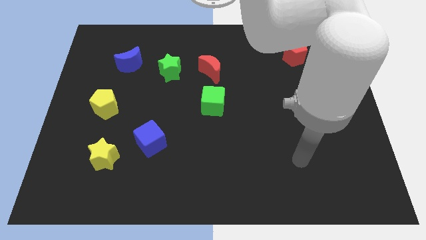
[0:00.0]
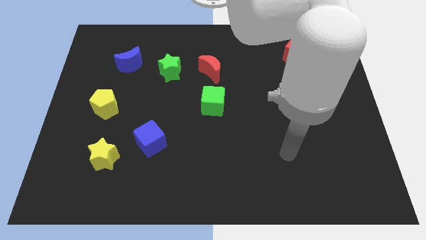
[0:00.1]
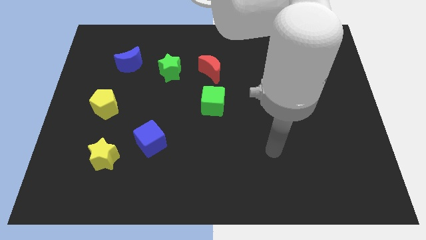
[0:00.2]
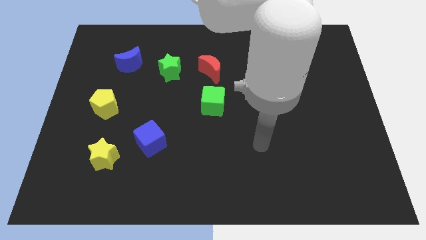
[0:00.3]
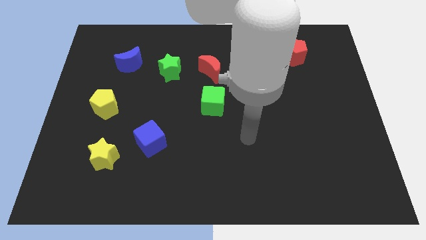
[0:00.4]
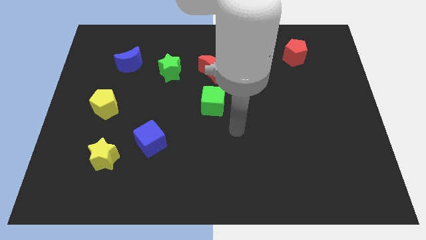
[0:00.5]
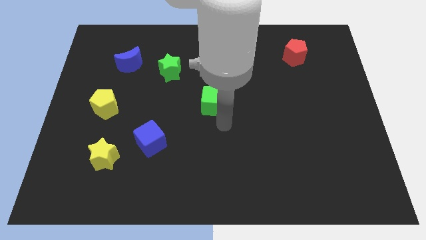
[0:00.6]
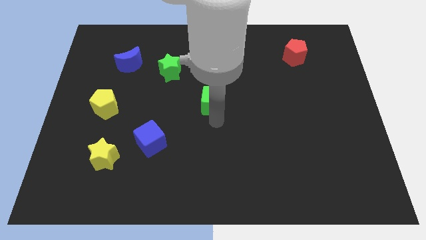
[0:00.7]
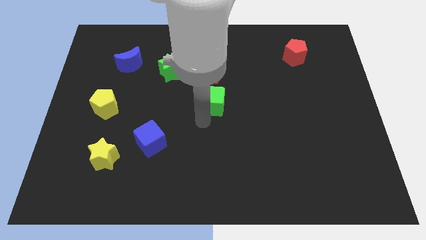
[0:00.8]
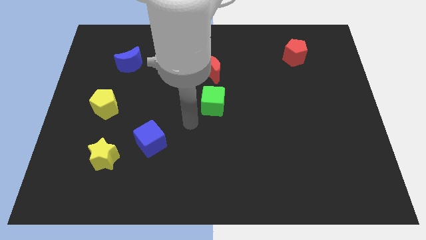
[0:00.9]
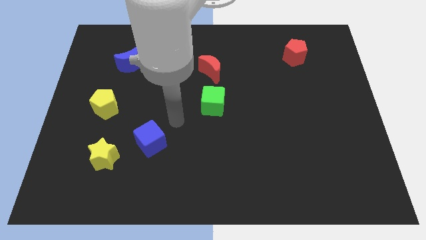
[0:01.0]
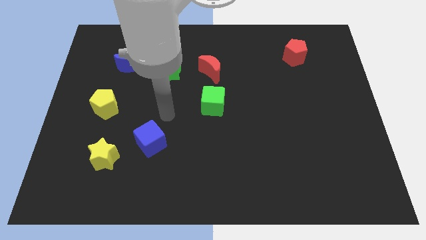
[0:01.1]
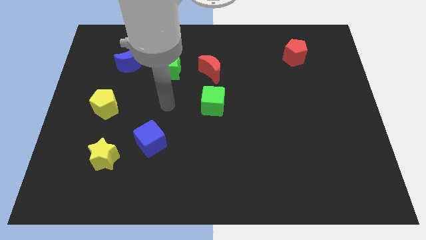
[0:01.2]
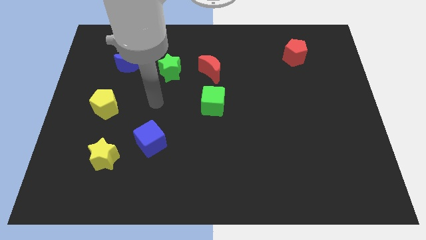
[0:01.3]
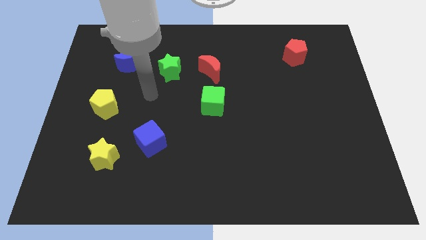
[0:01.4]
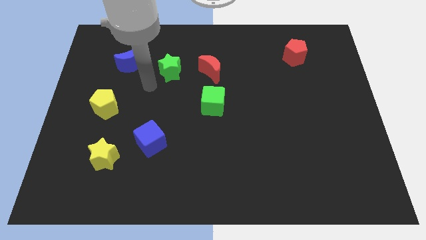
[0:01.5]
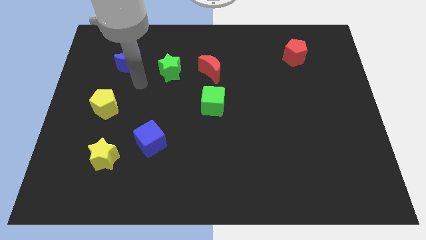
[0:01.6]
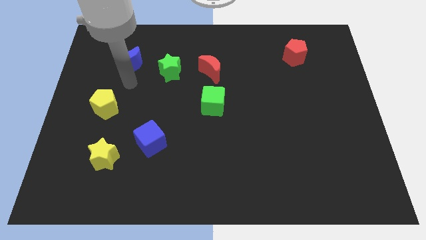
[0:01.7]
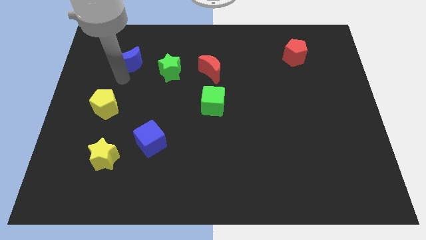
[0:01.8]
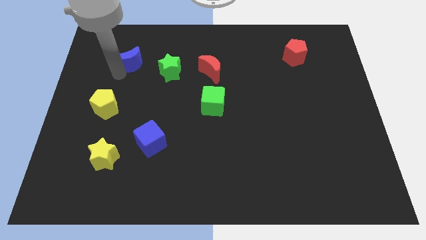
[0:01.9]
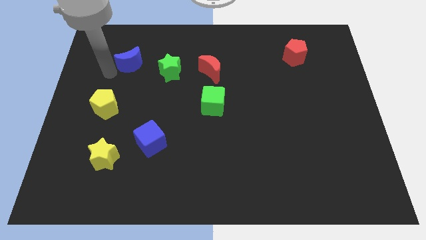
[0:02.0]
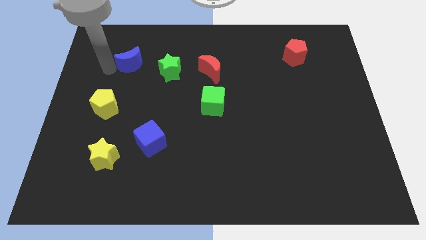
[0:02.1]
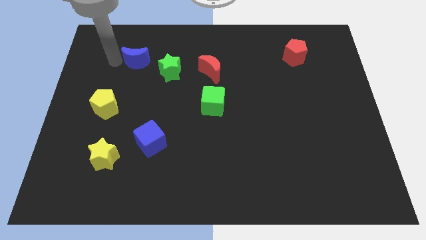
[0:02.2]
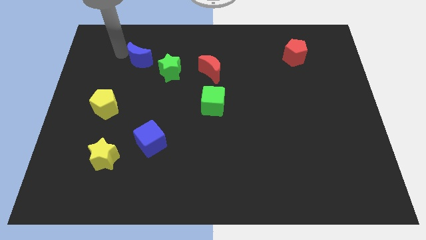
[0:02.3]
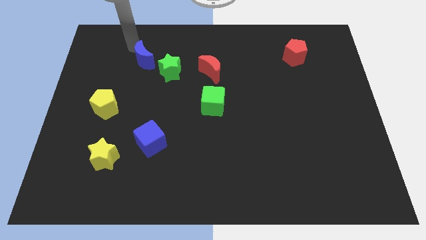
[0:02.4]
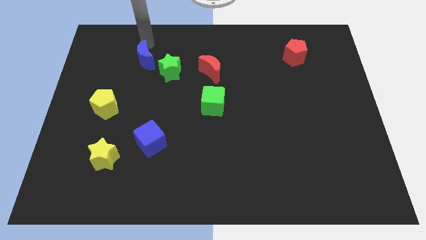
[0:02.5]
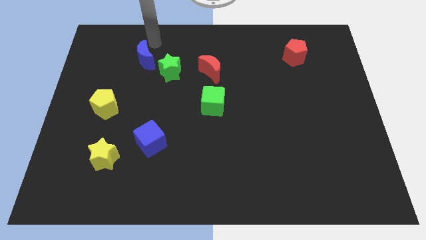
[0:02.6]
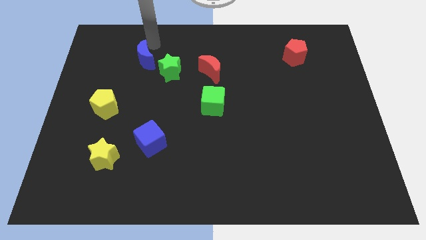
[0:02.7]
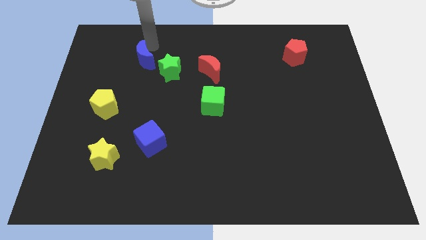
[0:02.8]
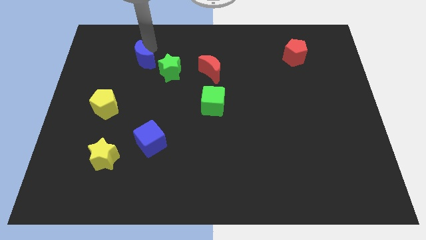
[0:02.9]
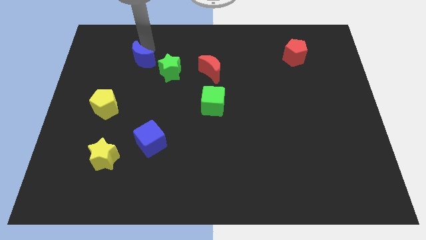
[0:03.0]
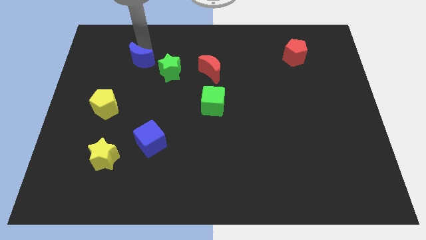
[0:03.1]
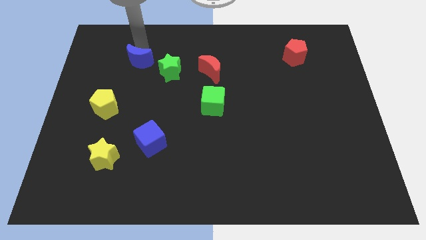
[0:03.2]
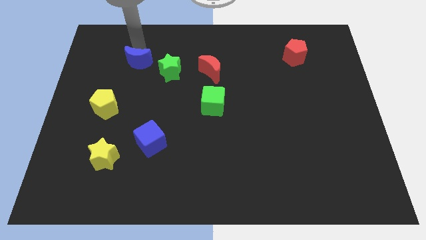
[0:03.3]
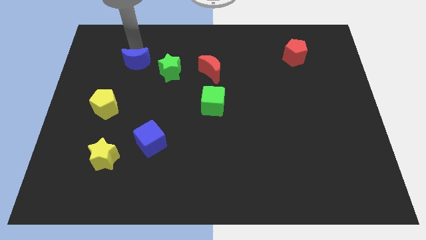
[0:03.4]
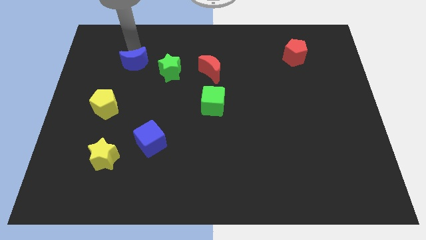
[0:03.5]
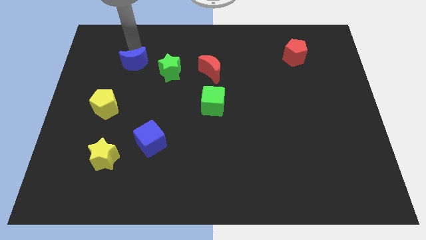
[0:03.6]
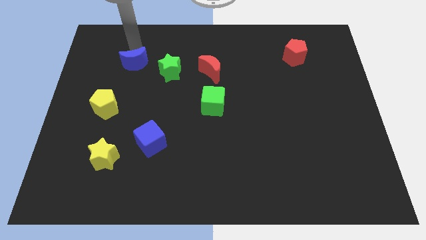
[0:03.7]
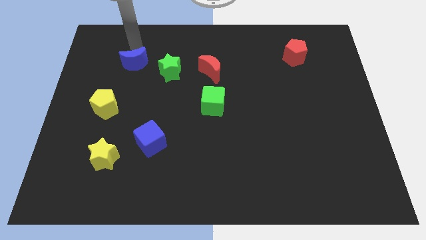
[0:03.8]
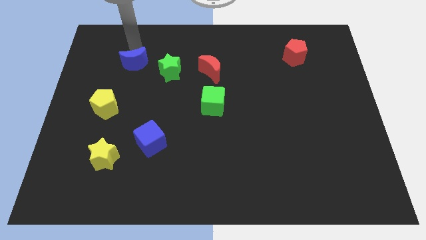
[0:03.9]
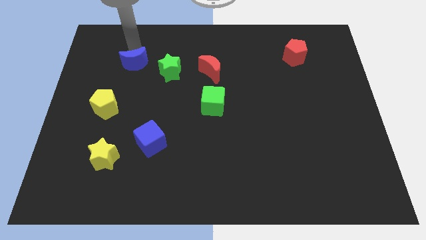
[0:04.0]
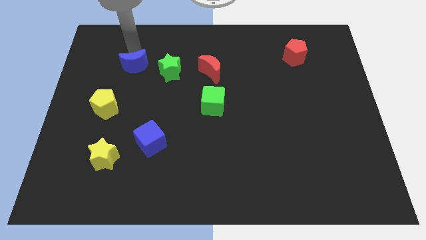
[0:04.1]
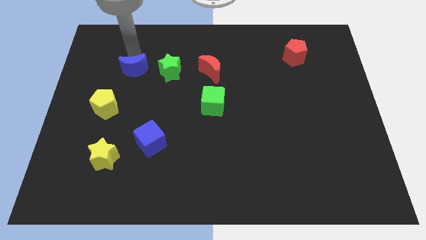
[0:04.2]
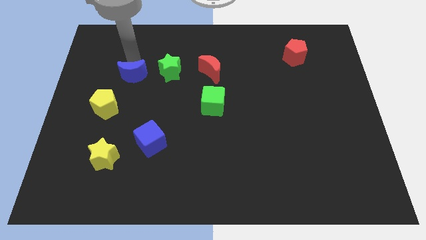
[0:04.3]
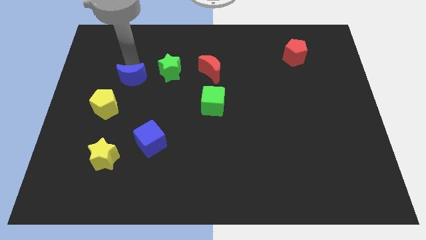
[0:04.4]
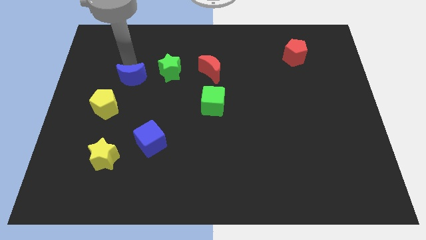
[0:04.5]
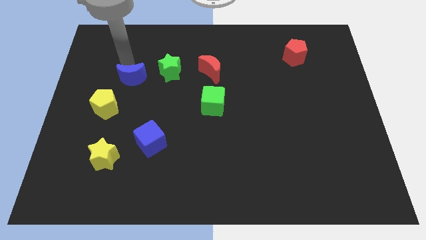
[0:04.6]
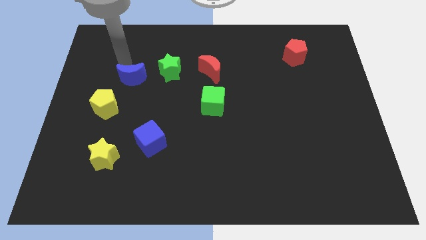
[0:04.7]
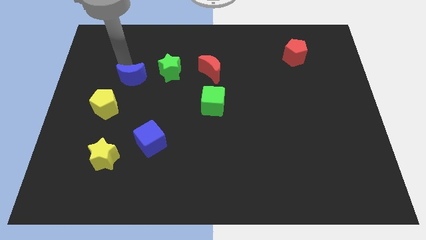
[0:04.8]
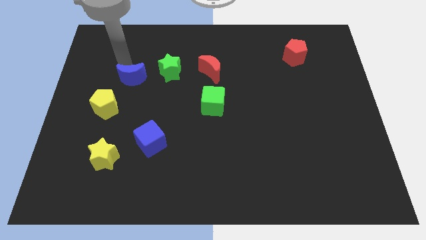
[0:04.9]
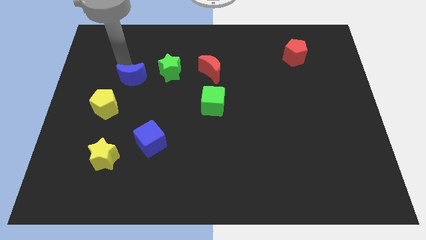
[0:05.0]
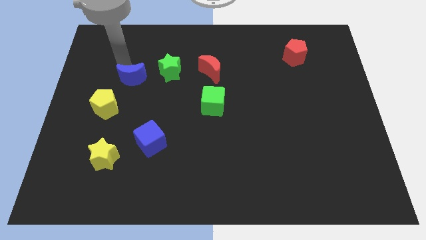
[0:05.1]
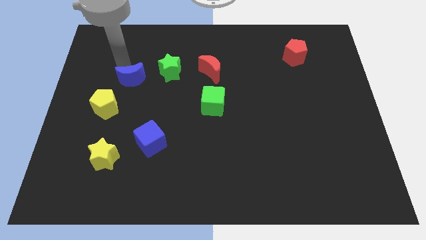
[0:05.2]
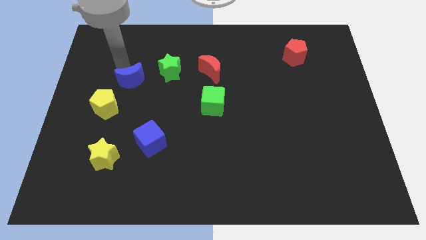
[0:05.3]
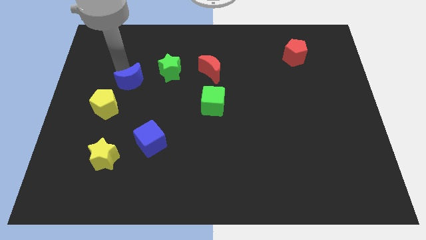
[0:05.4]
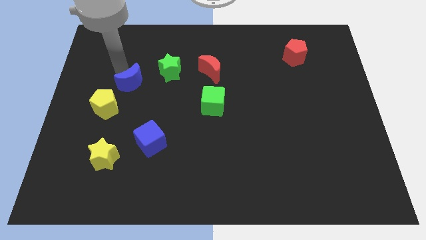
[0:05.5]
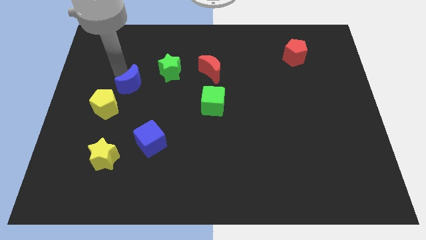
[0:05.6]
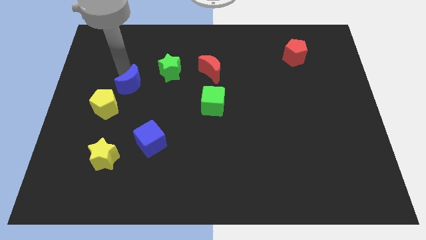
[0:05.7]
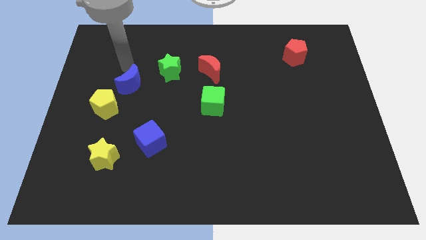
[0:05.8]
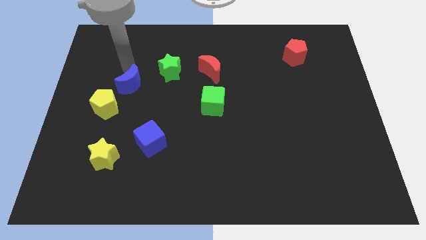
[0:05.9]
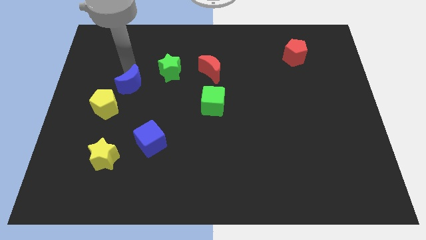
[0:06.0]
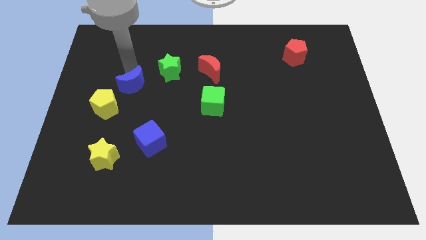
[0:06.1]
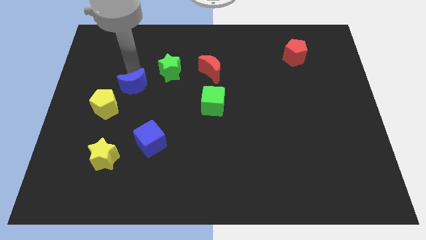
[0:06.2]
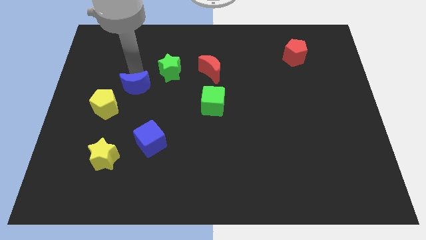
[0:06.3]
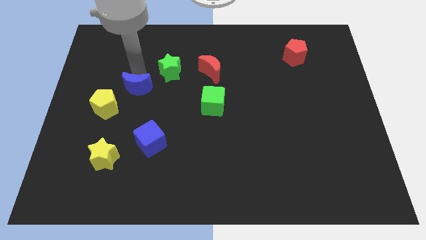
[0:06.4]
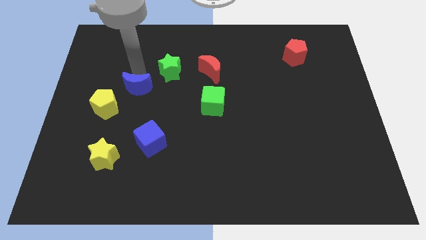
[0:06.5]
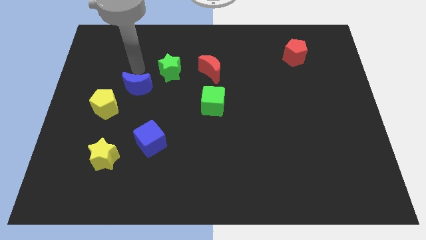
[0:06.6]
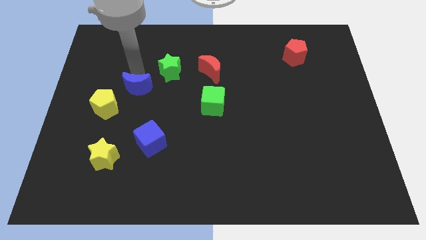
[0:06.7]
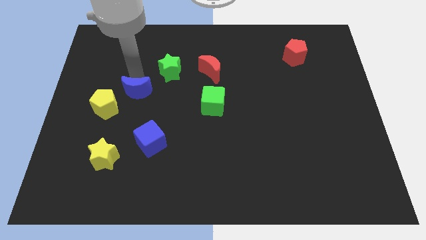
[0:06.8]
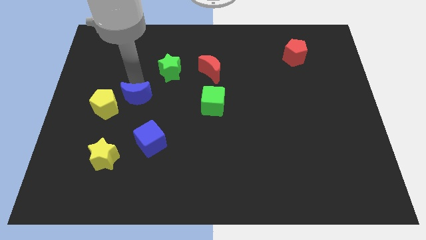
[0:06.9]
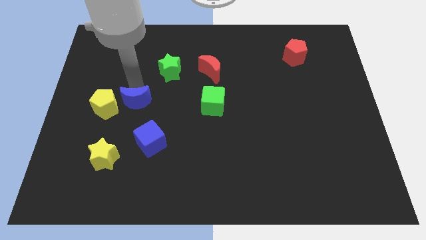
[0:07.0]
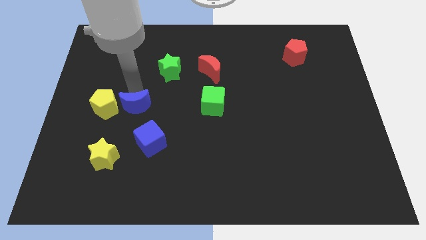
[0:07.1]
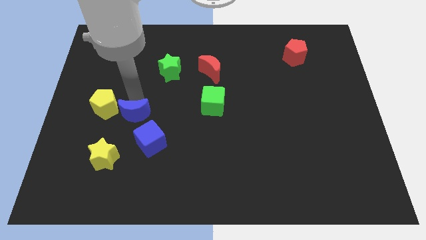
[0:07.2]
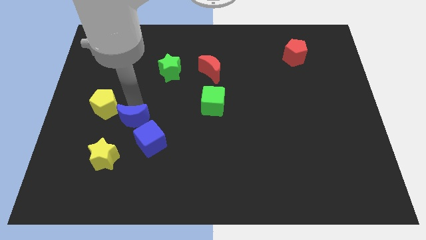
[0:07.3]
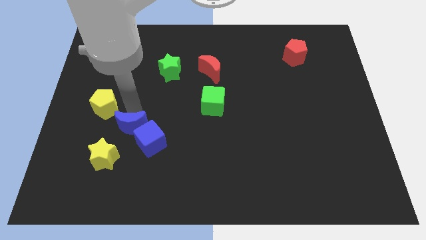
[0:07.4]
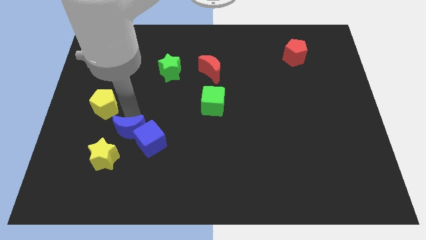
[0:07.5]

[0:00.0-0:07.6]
slide the blue moon downwards

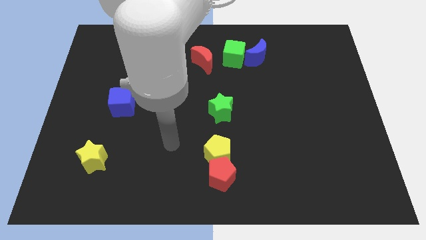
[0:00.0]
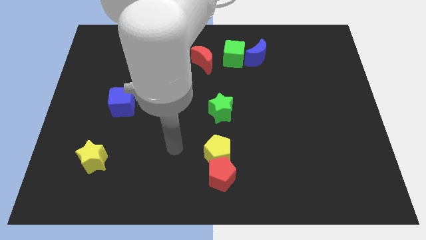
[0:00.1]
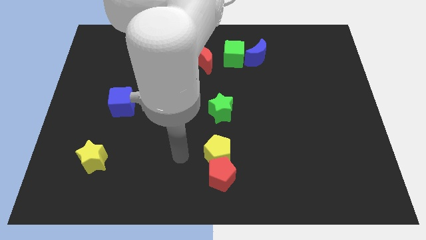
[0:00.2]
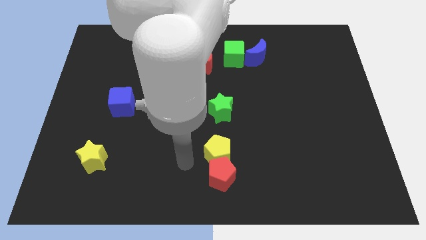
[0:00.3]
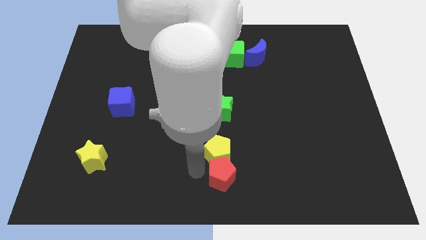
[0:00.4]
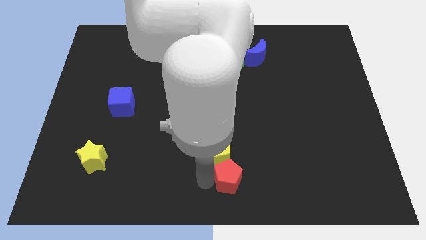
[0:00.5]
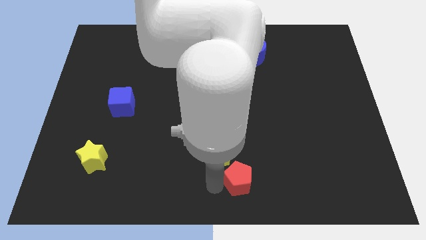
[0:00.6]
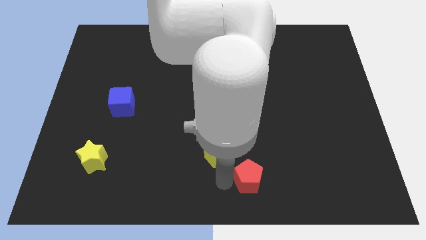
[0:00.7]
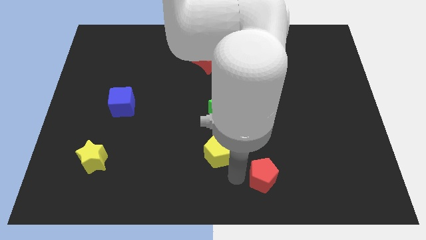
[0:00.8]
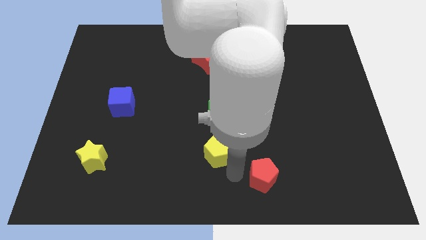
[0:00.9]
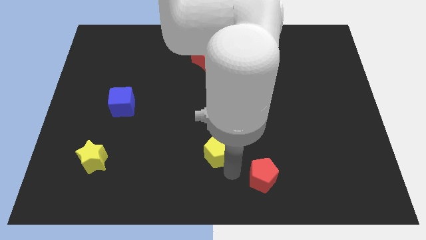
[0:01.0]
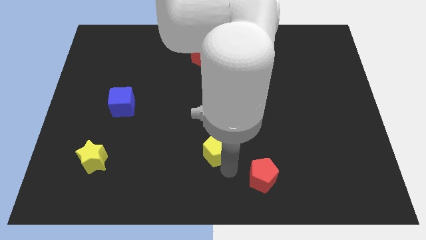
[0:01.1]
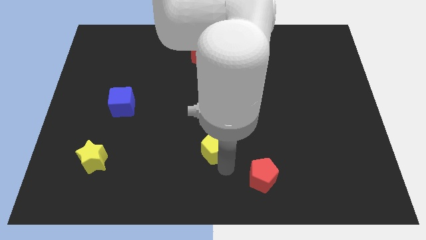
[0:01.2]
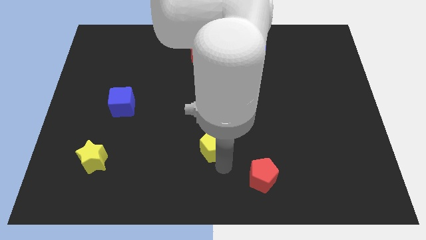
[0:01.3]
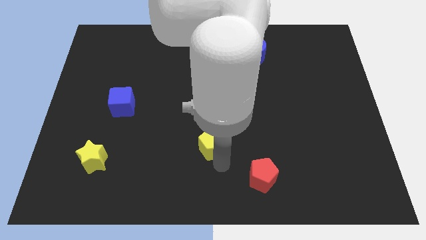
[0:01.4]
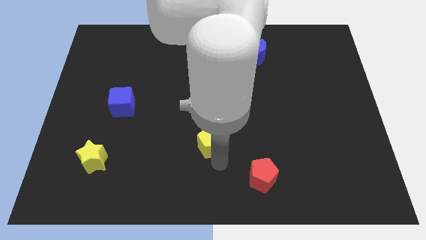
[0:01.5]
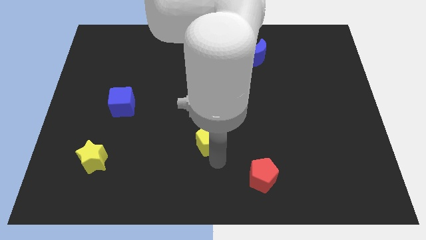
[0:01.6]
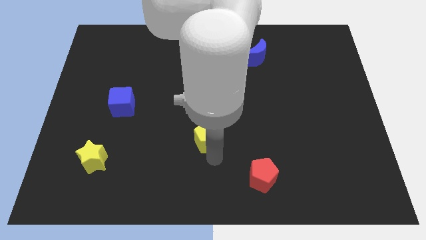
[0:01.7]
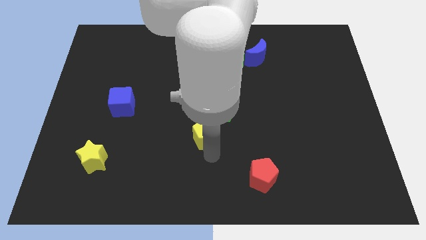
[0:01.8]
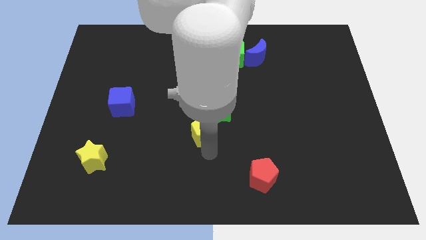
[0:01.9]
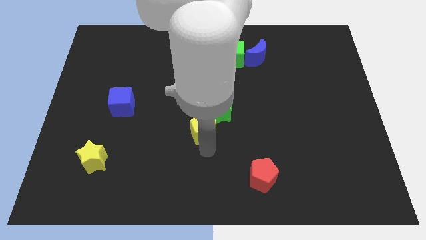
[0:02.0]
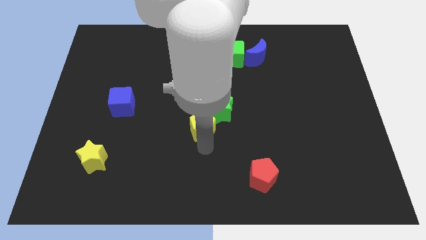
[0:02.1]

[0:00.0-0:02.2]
move the yellow pentagon slightly up and left diagonally
